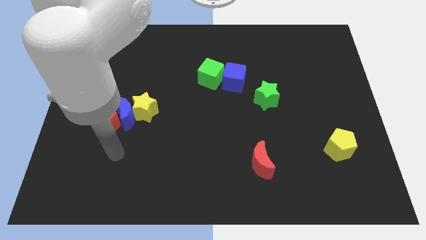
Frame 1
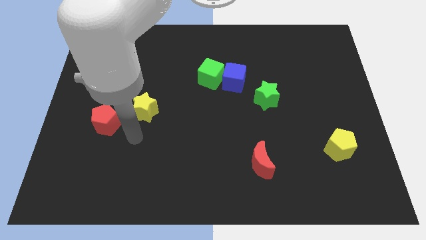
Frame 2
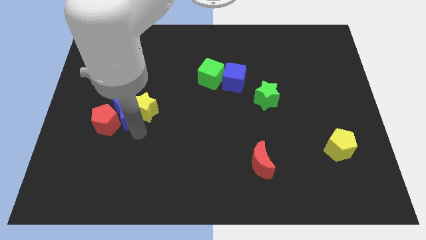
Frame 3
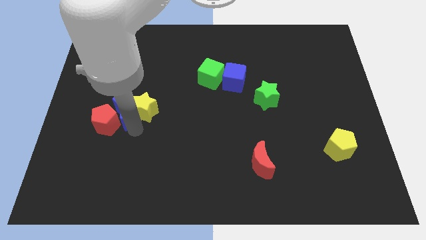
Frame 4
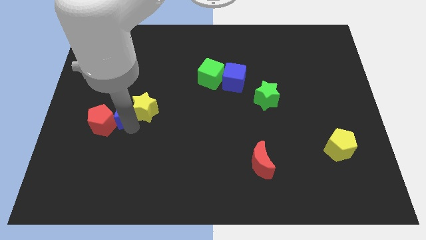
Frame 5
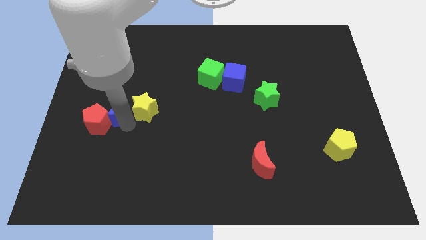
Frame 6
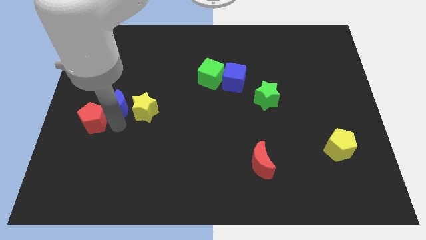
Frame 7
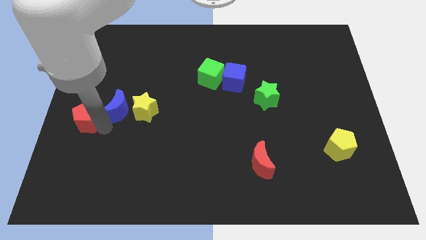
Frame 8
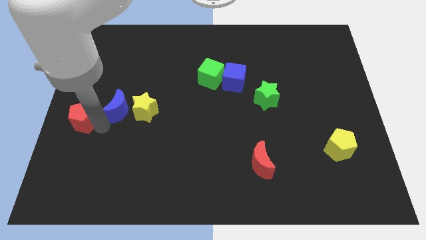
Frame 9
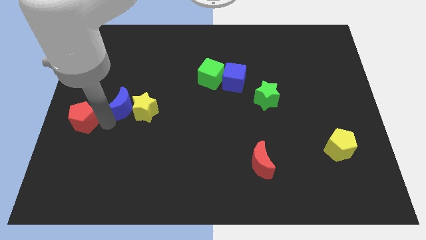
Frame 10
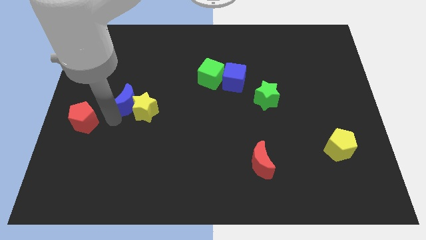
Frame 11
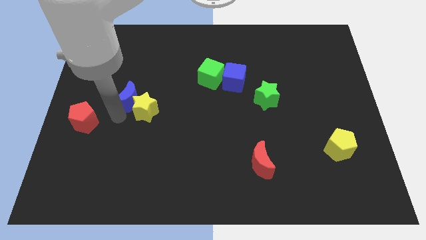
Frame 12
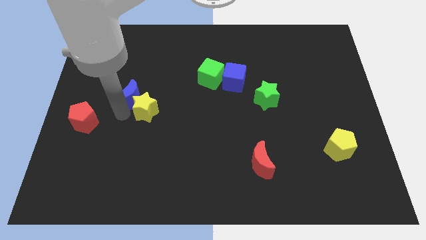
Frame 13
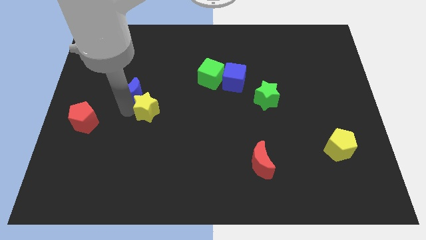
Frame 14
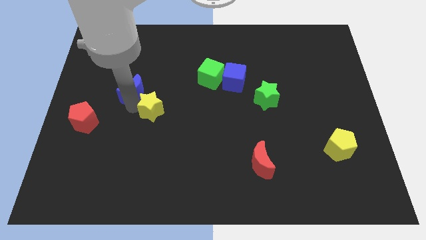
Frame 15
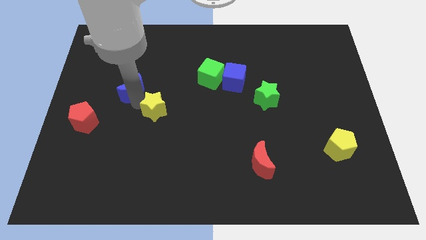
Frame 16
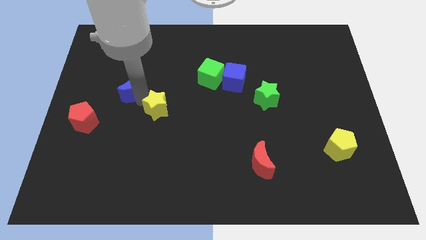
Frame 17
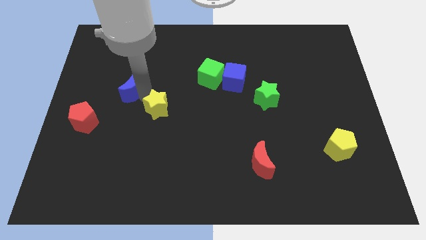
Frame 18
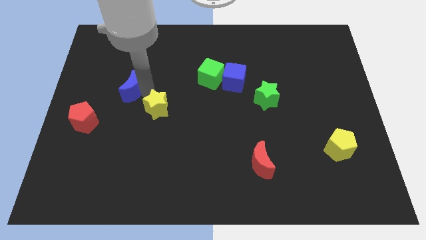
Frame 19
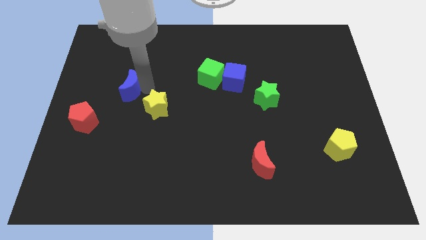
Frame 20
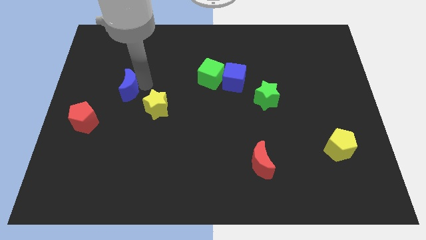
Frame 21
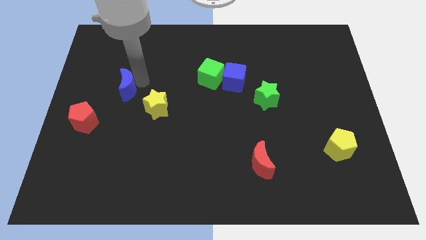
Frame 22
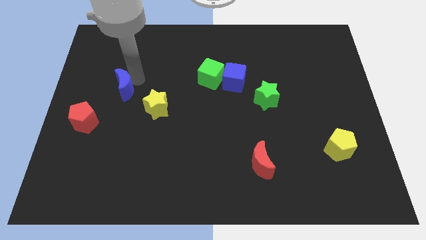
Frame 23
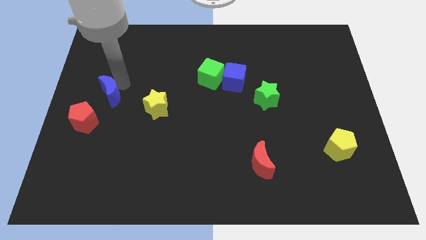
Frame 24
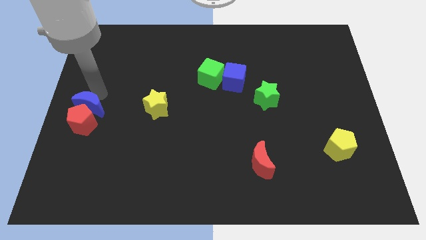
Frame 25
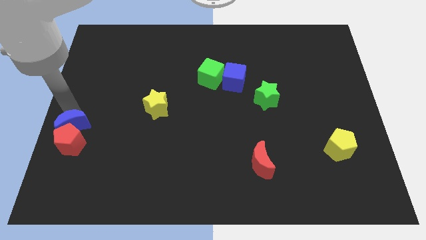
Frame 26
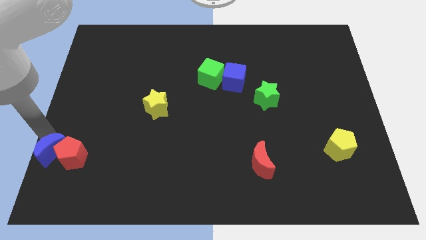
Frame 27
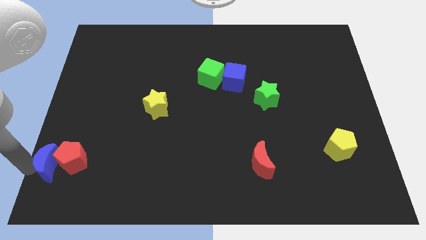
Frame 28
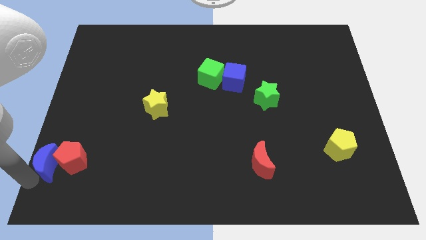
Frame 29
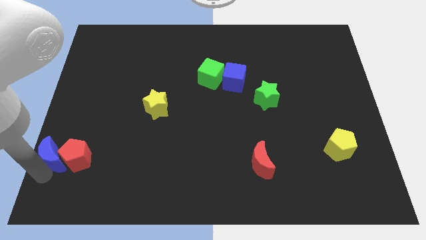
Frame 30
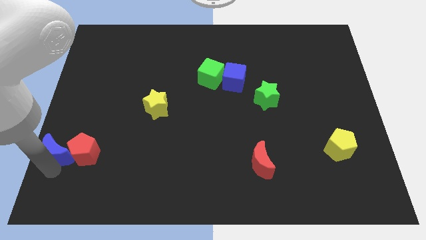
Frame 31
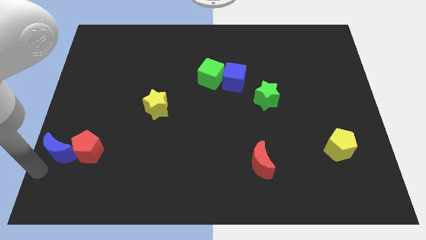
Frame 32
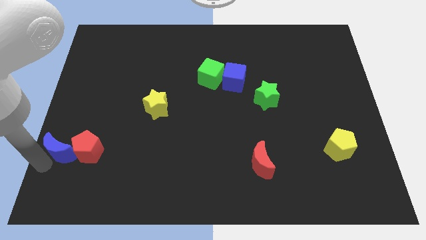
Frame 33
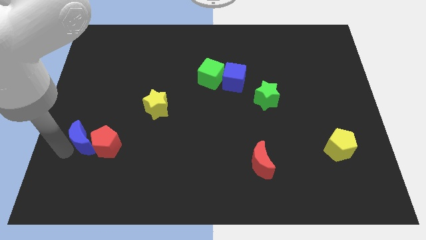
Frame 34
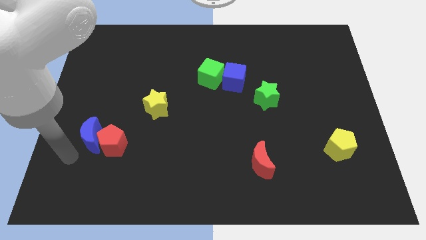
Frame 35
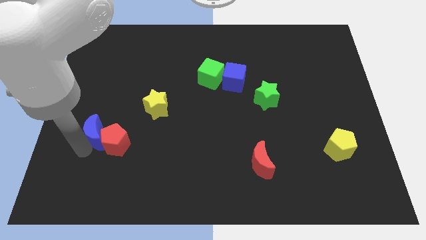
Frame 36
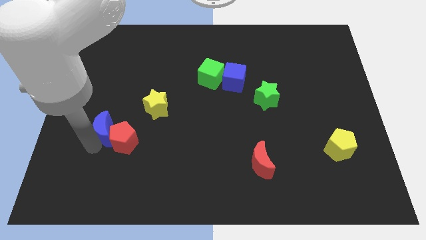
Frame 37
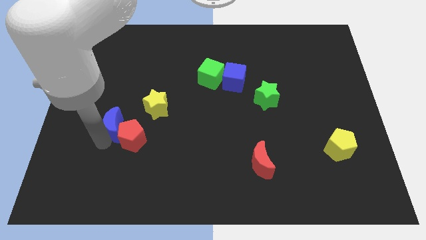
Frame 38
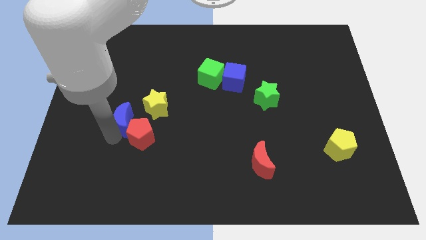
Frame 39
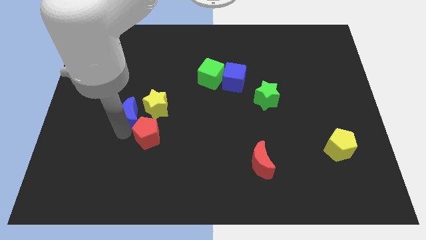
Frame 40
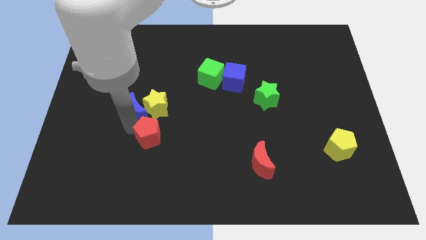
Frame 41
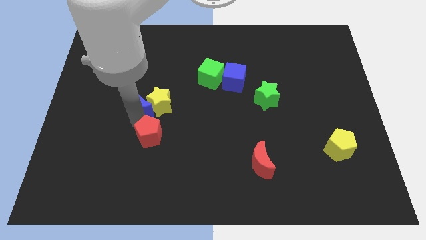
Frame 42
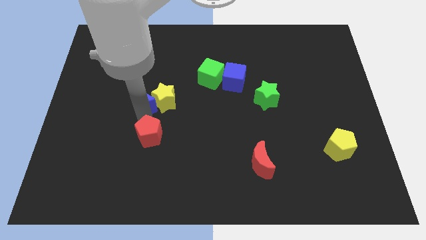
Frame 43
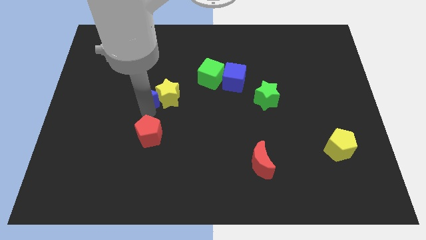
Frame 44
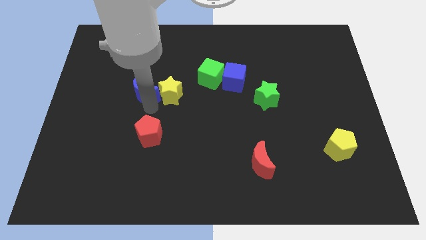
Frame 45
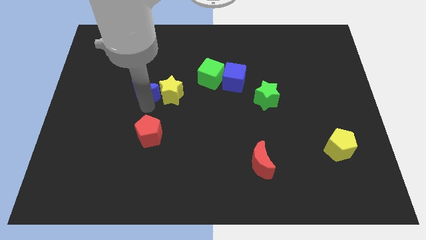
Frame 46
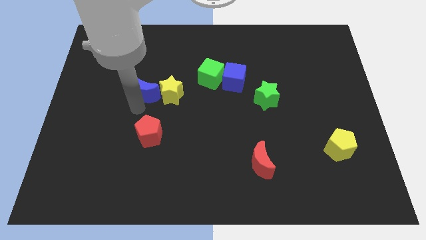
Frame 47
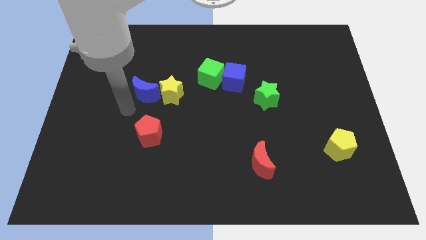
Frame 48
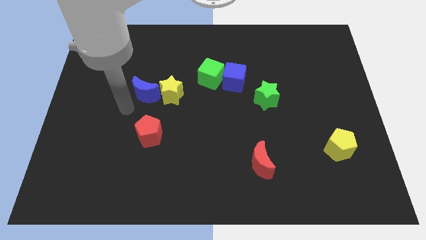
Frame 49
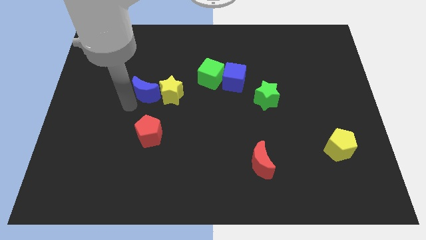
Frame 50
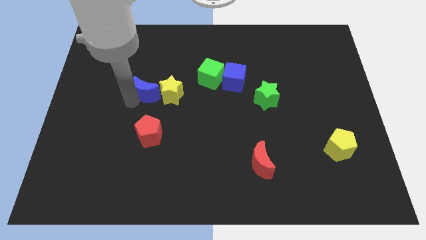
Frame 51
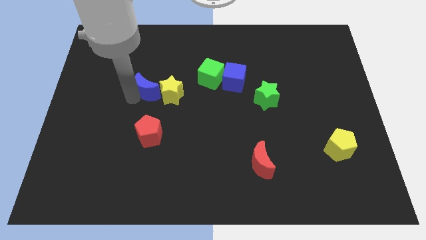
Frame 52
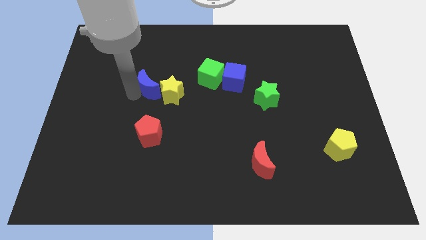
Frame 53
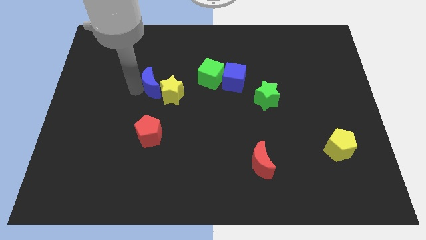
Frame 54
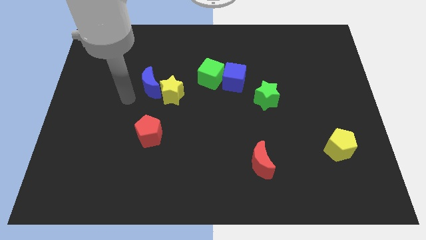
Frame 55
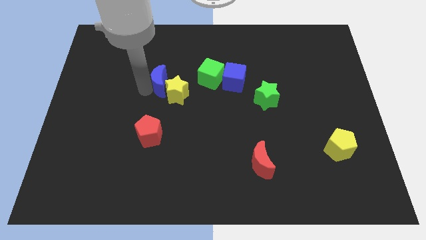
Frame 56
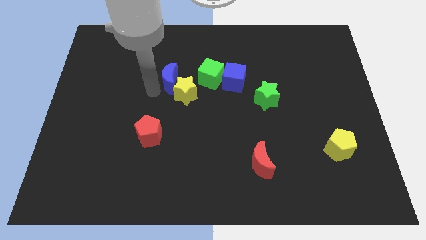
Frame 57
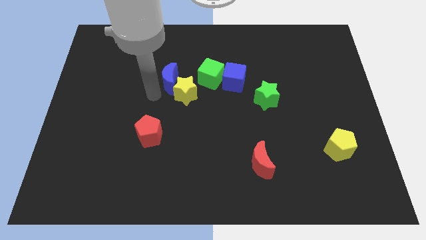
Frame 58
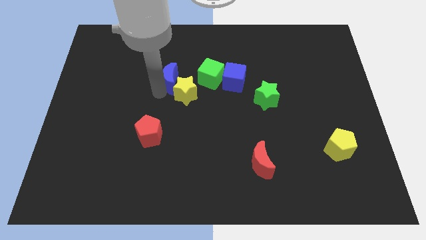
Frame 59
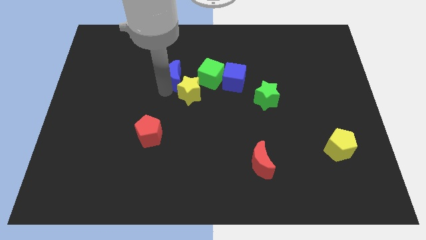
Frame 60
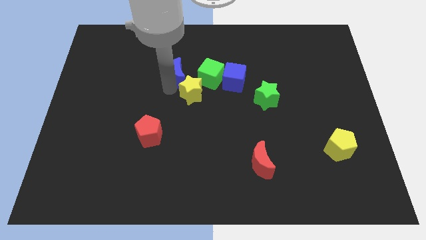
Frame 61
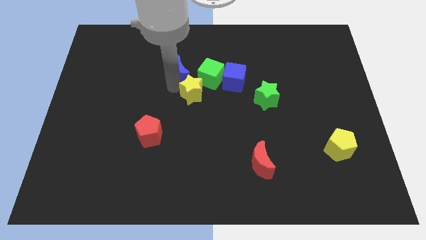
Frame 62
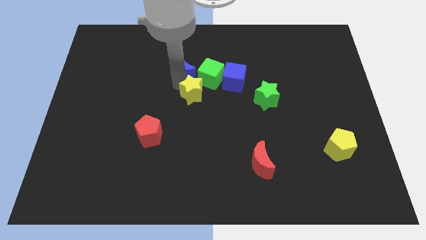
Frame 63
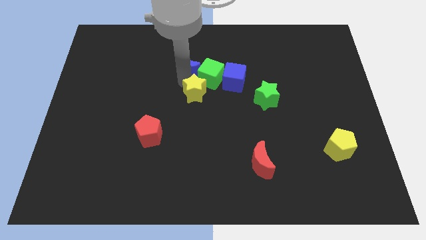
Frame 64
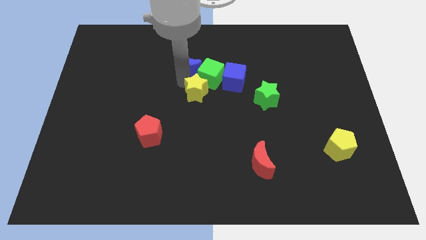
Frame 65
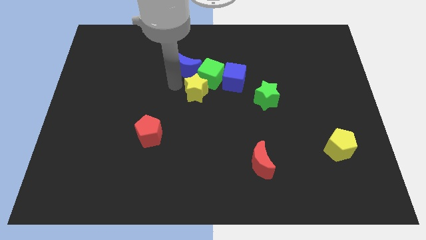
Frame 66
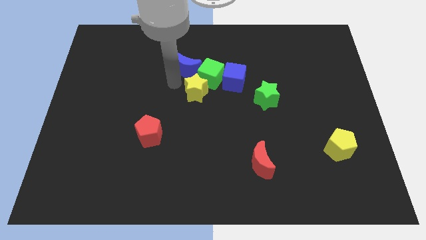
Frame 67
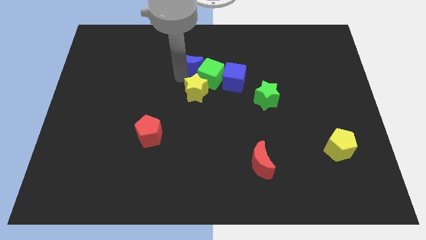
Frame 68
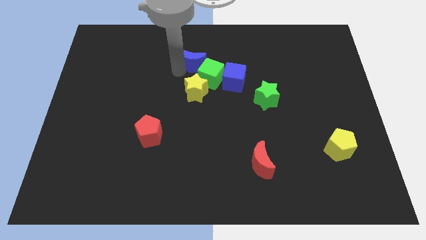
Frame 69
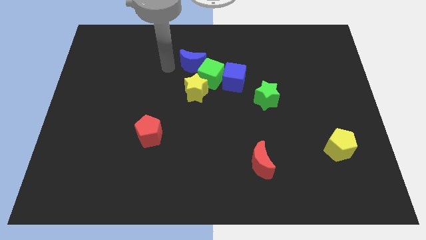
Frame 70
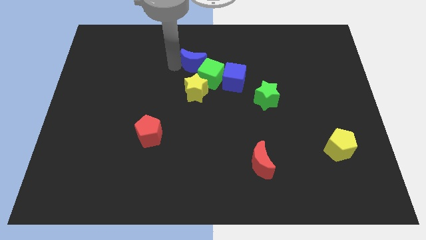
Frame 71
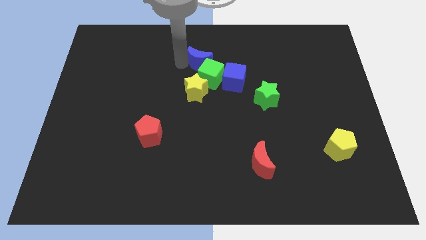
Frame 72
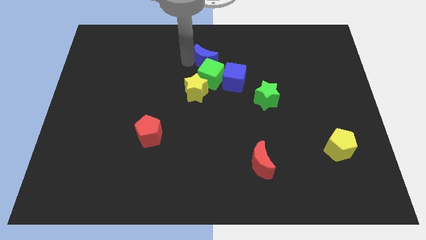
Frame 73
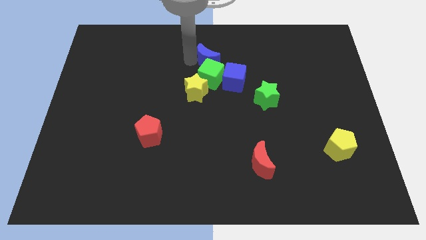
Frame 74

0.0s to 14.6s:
put the blue moon to the top right side of the green cube
